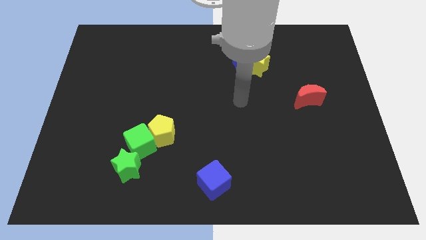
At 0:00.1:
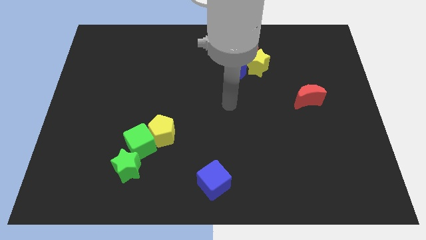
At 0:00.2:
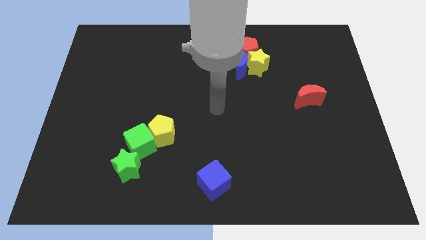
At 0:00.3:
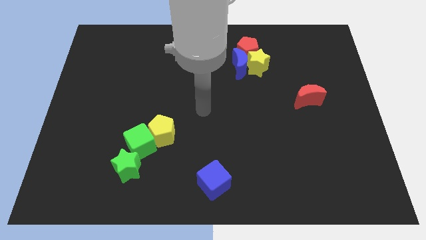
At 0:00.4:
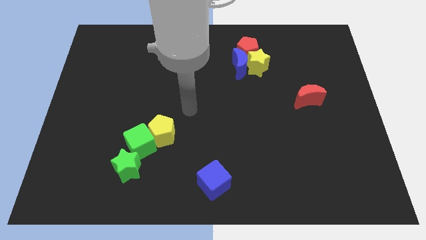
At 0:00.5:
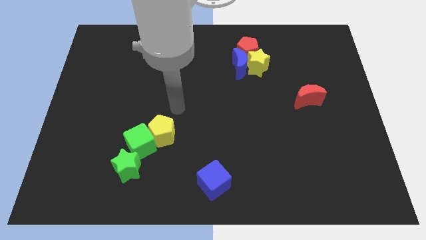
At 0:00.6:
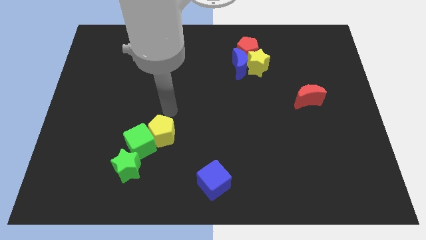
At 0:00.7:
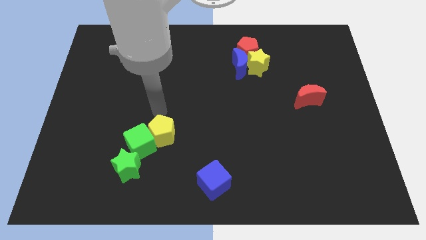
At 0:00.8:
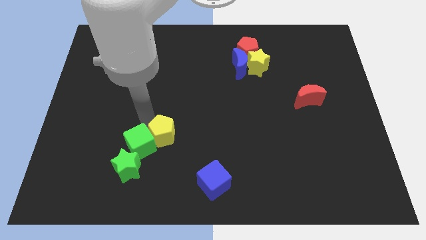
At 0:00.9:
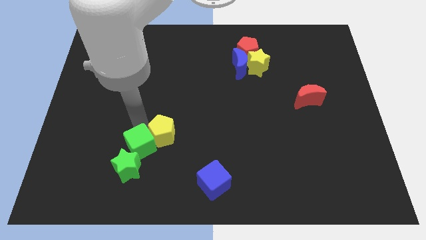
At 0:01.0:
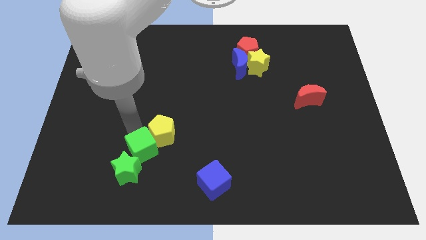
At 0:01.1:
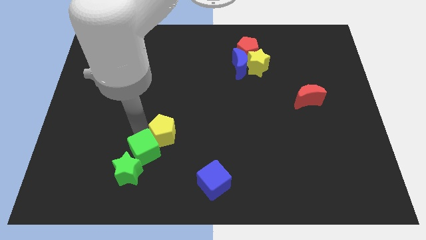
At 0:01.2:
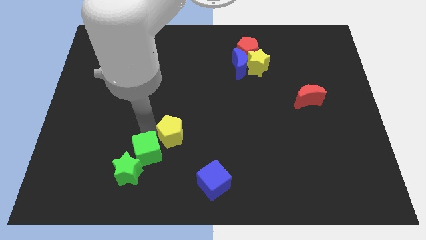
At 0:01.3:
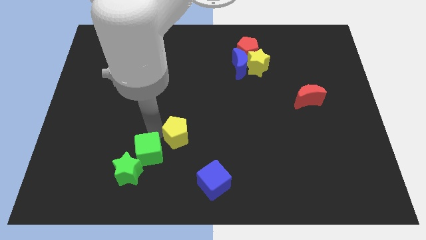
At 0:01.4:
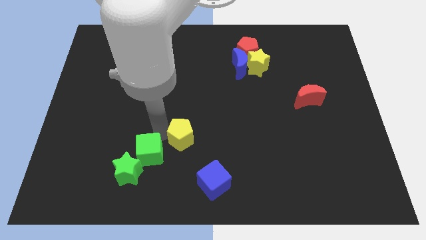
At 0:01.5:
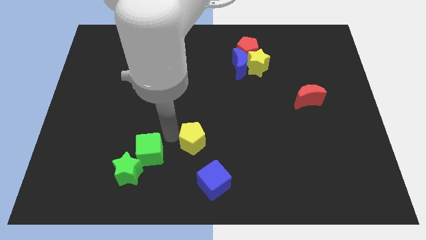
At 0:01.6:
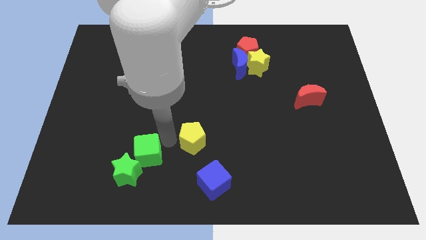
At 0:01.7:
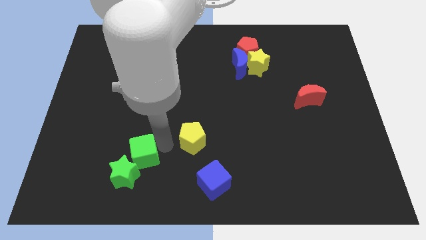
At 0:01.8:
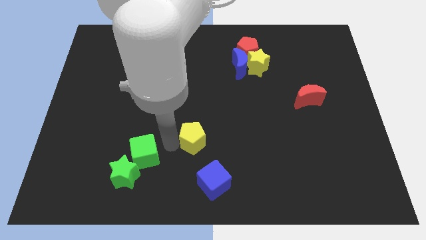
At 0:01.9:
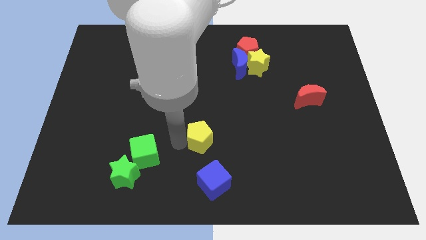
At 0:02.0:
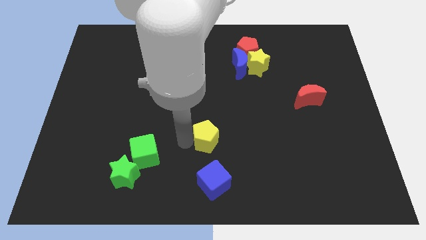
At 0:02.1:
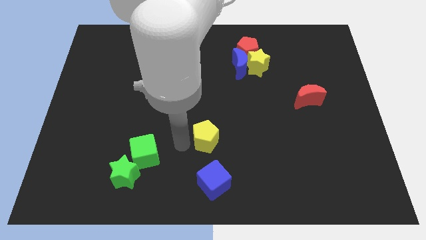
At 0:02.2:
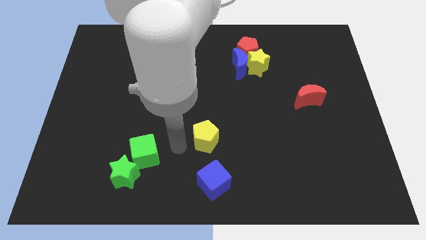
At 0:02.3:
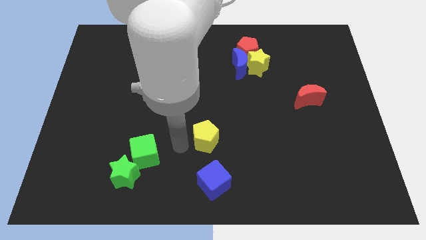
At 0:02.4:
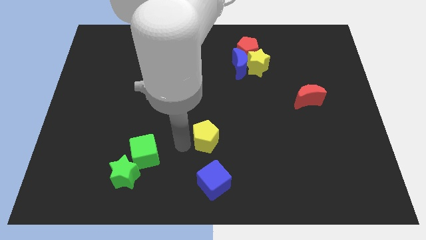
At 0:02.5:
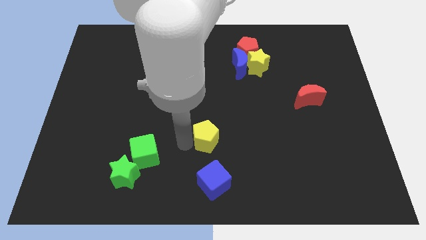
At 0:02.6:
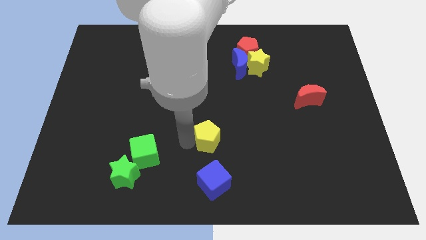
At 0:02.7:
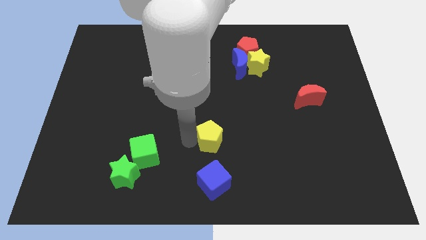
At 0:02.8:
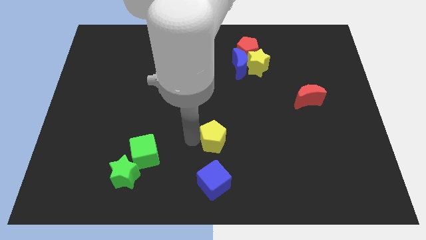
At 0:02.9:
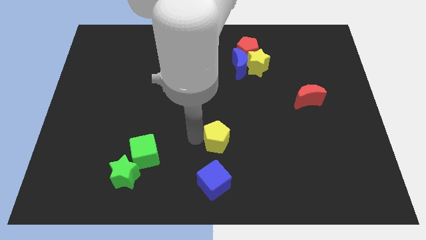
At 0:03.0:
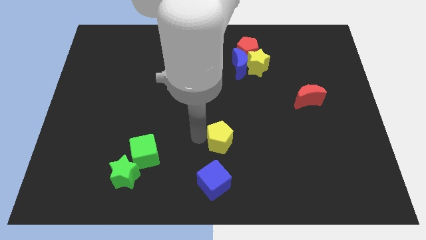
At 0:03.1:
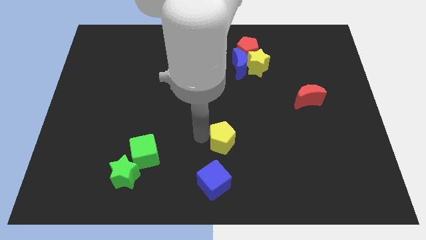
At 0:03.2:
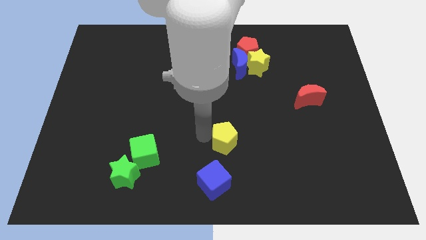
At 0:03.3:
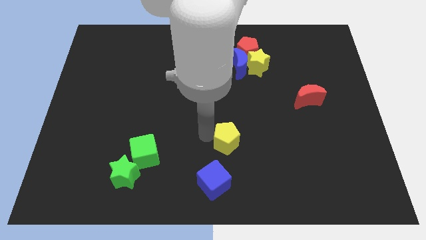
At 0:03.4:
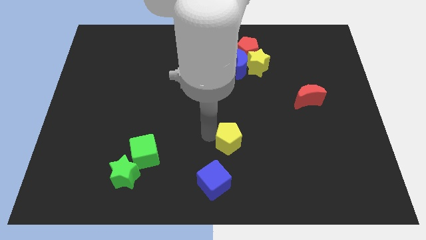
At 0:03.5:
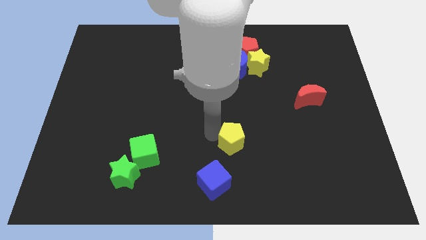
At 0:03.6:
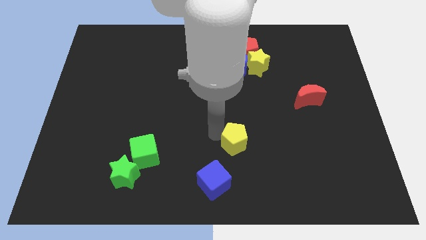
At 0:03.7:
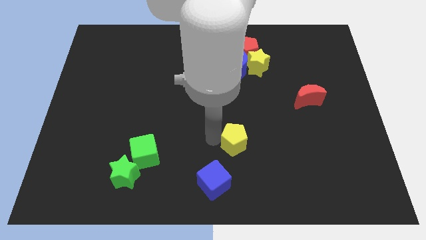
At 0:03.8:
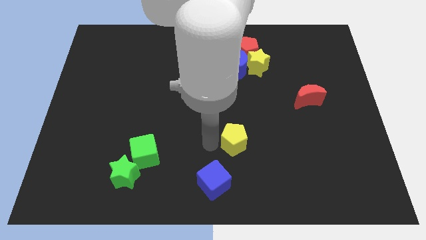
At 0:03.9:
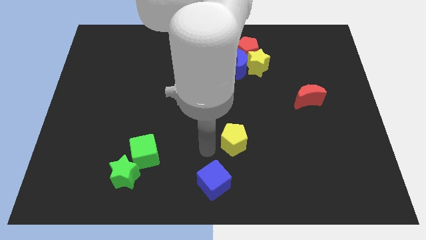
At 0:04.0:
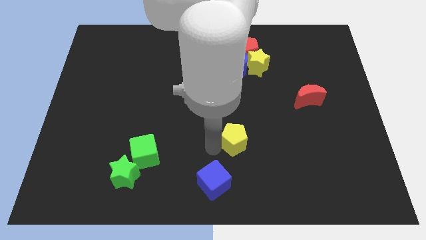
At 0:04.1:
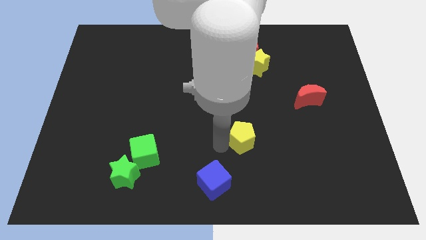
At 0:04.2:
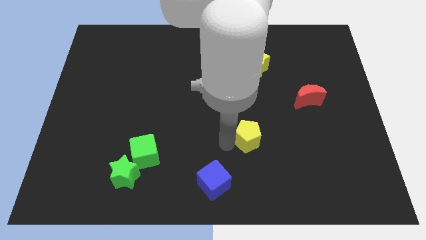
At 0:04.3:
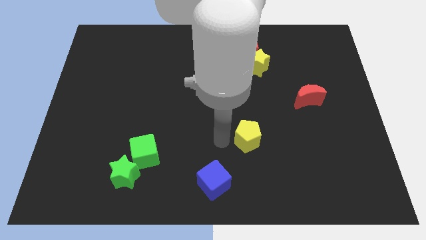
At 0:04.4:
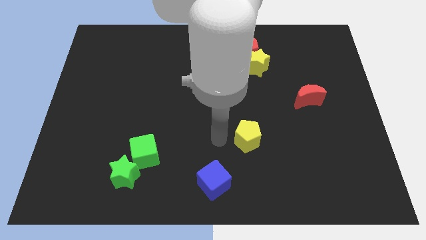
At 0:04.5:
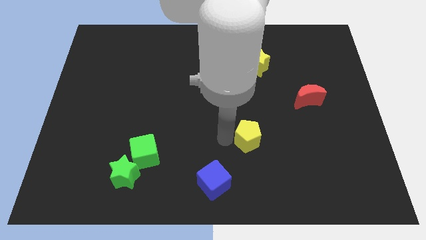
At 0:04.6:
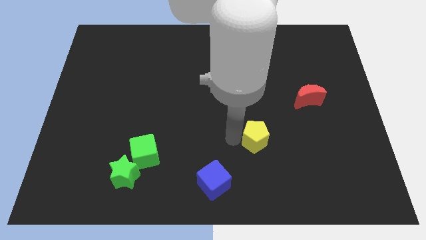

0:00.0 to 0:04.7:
push the yellow pentagon right

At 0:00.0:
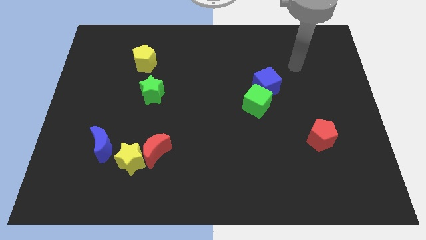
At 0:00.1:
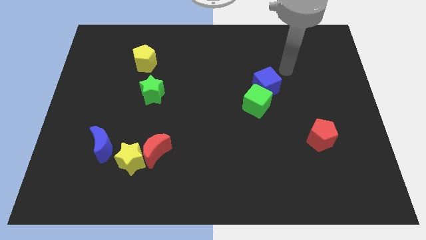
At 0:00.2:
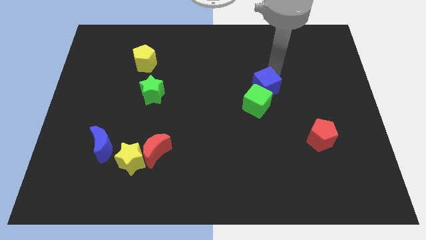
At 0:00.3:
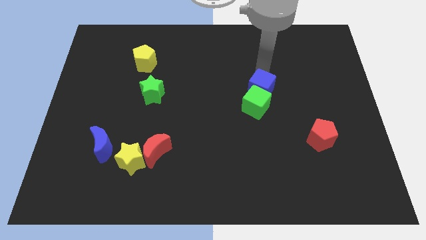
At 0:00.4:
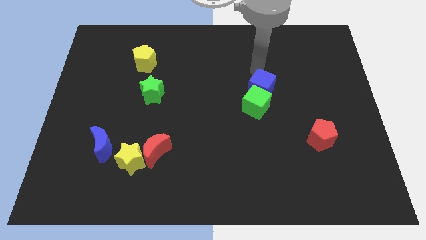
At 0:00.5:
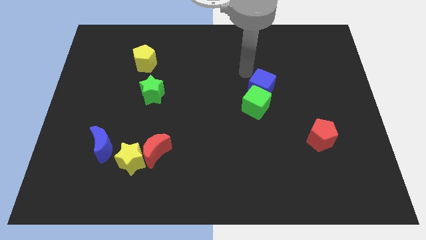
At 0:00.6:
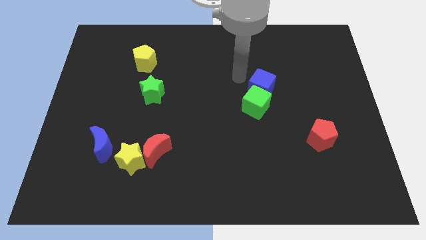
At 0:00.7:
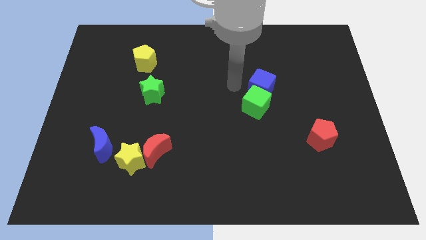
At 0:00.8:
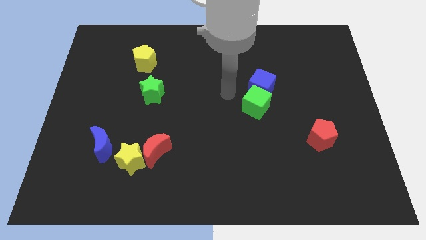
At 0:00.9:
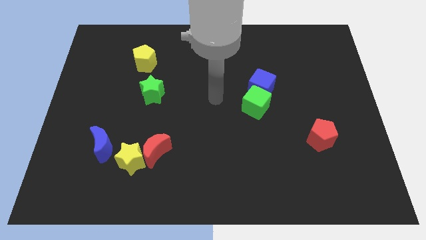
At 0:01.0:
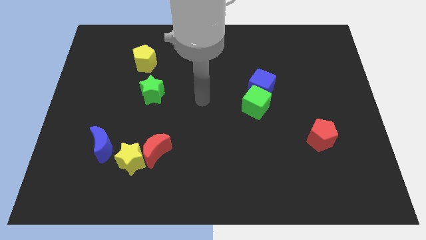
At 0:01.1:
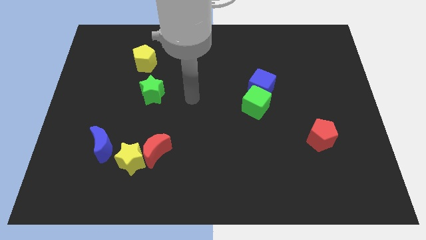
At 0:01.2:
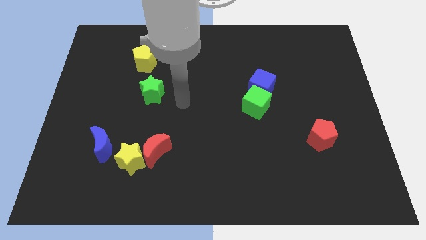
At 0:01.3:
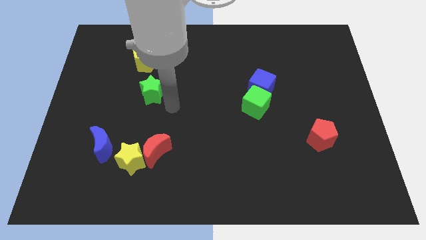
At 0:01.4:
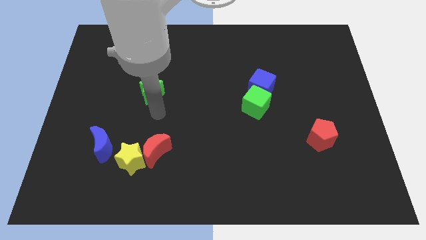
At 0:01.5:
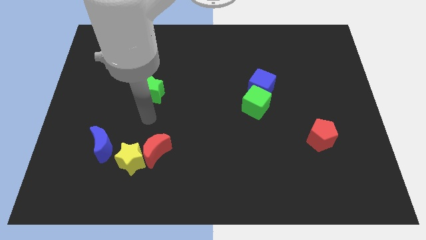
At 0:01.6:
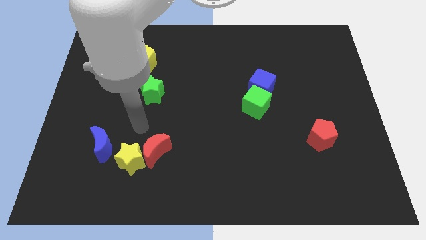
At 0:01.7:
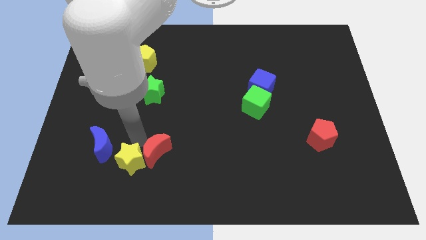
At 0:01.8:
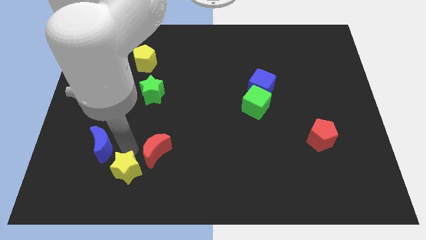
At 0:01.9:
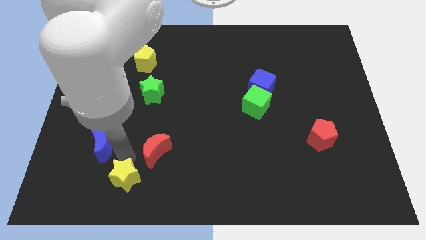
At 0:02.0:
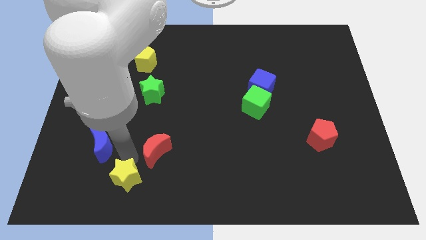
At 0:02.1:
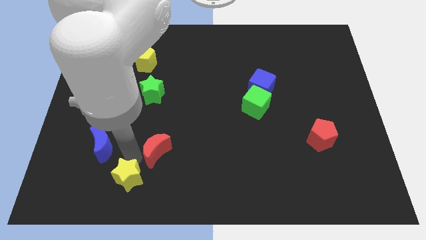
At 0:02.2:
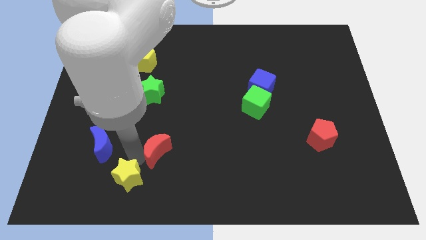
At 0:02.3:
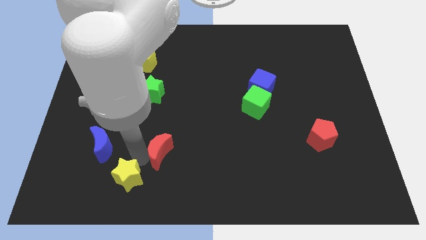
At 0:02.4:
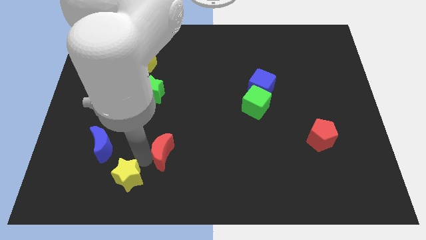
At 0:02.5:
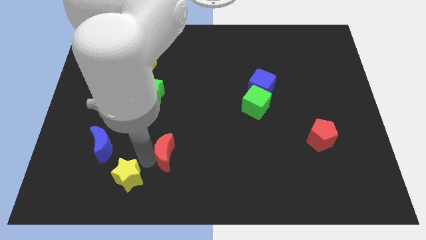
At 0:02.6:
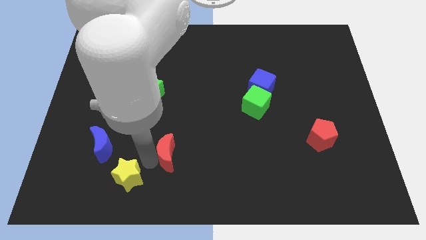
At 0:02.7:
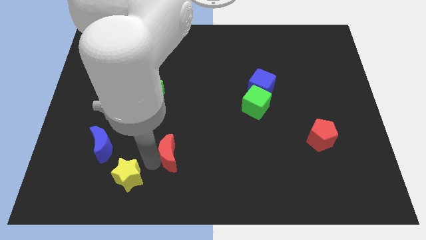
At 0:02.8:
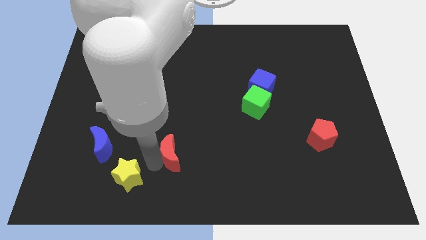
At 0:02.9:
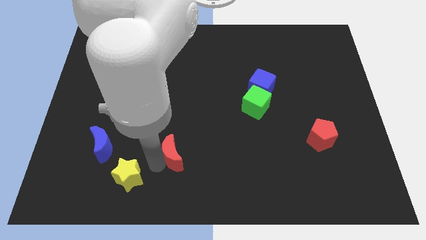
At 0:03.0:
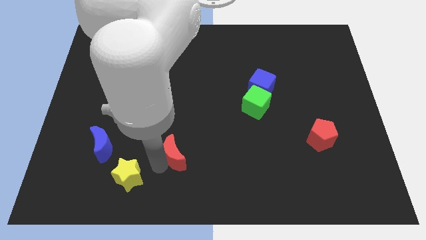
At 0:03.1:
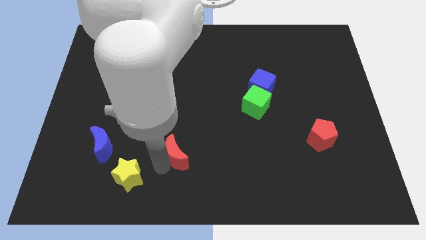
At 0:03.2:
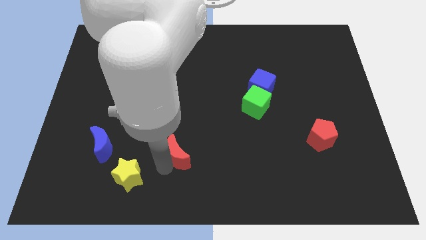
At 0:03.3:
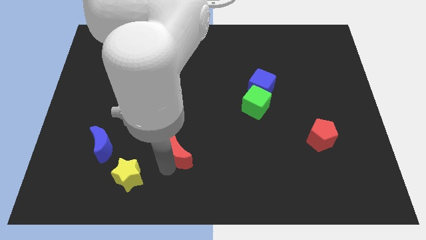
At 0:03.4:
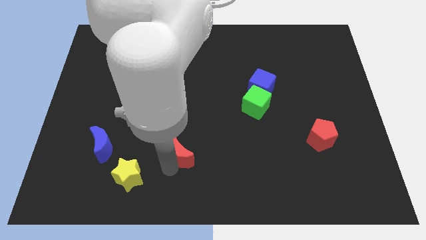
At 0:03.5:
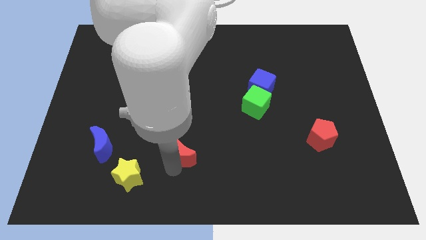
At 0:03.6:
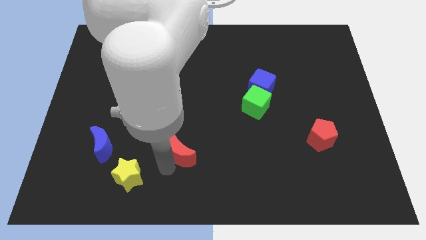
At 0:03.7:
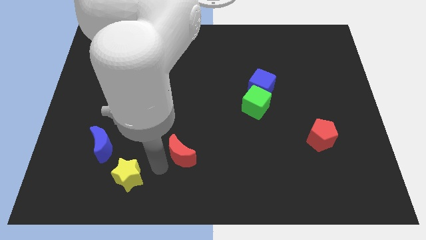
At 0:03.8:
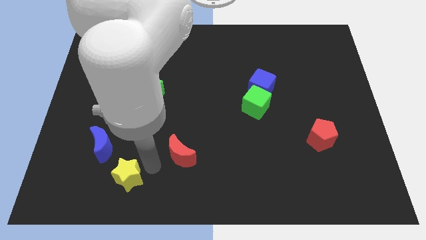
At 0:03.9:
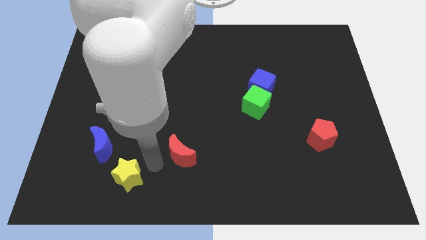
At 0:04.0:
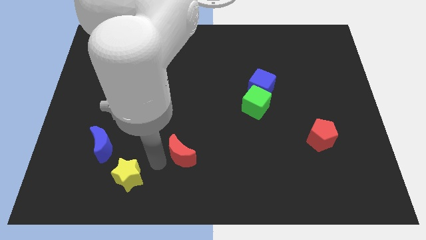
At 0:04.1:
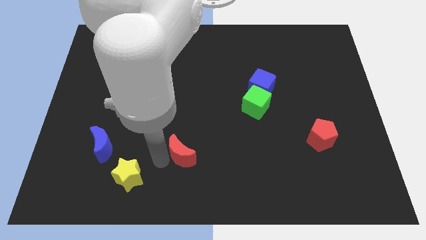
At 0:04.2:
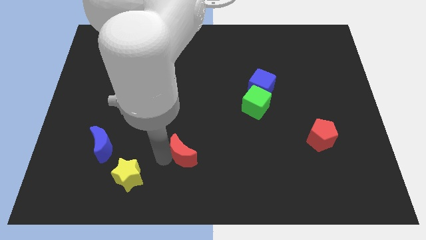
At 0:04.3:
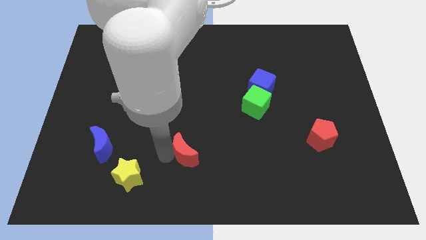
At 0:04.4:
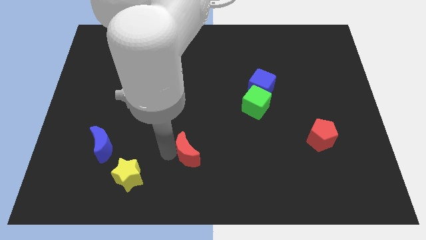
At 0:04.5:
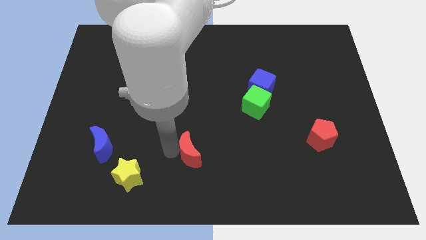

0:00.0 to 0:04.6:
push the red moon a little bit right
